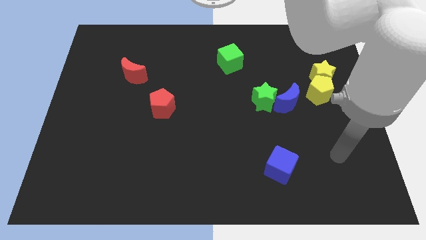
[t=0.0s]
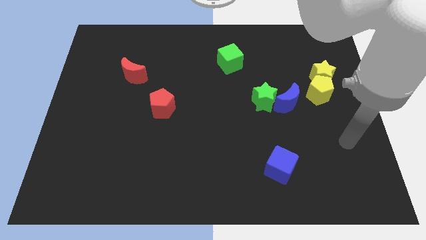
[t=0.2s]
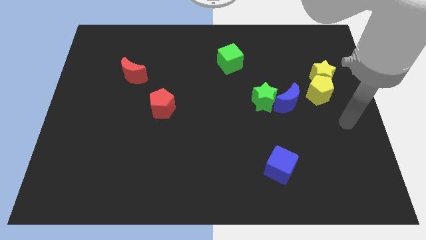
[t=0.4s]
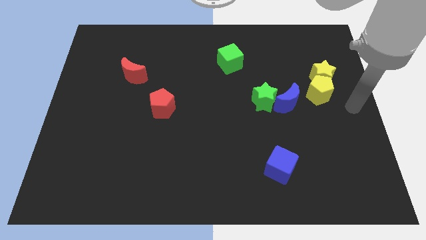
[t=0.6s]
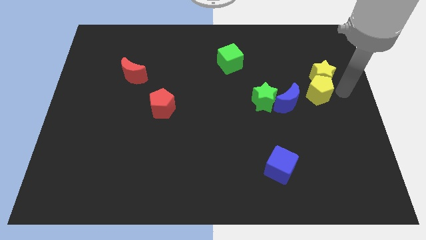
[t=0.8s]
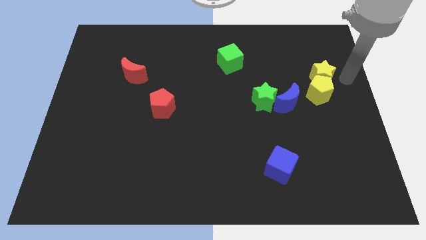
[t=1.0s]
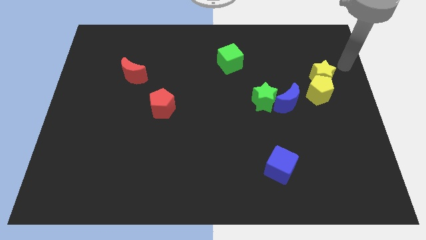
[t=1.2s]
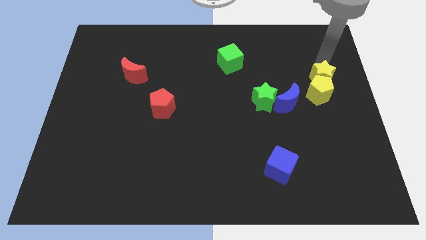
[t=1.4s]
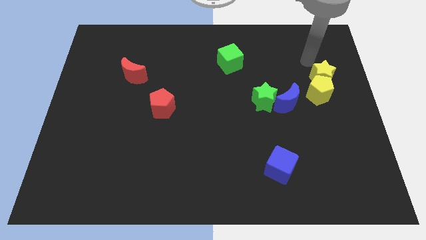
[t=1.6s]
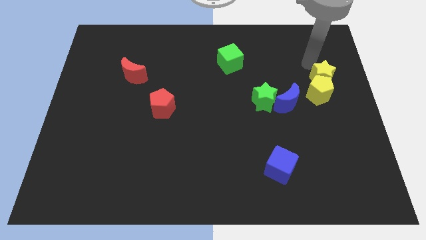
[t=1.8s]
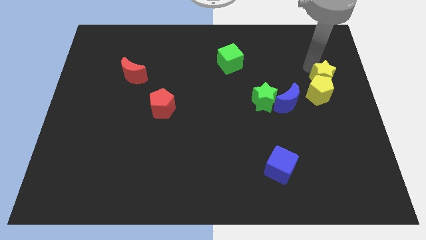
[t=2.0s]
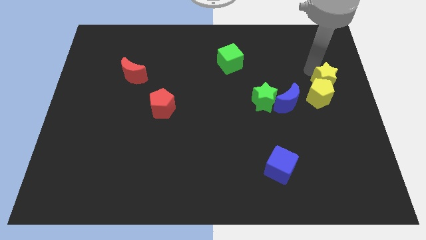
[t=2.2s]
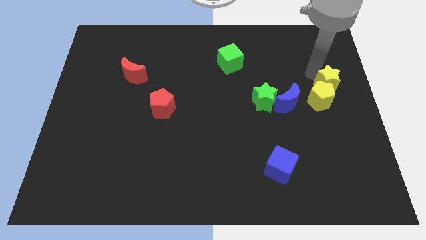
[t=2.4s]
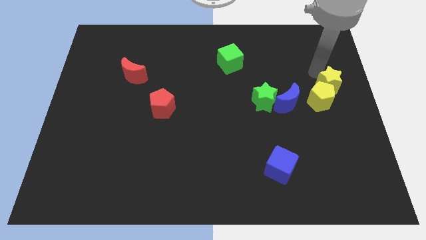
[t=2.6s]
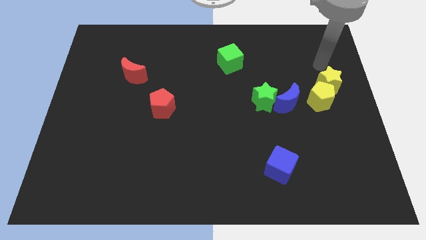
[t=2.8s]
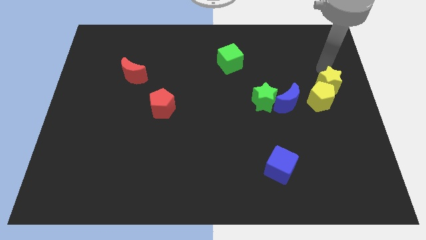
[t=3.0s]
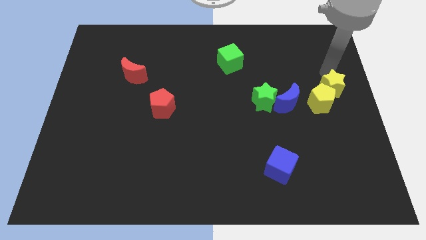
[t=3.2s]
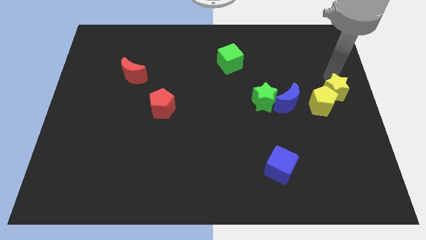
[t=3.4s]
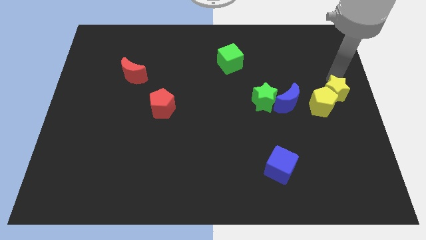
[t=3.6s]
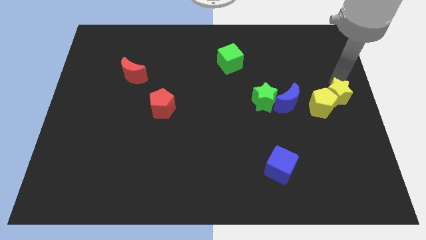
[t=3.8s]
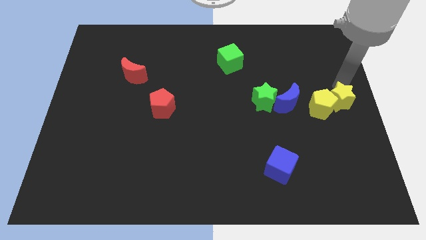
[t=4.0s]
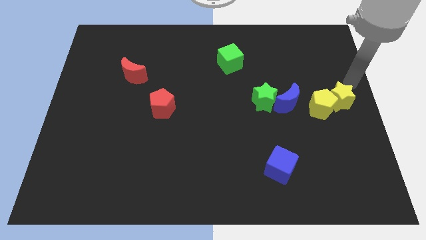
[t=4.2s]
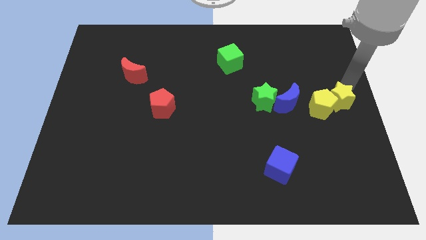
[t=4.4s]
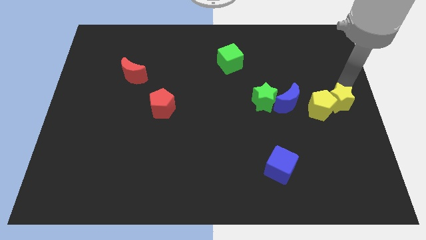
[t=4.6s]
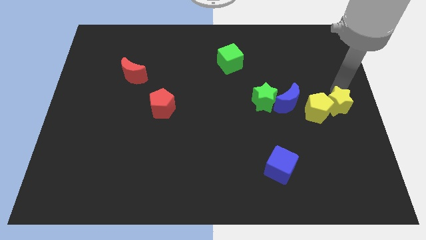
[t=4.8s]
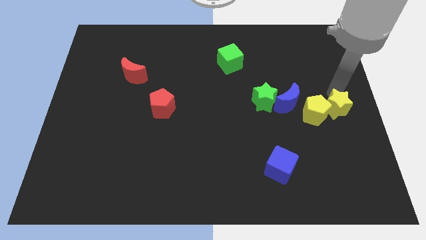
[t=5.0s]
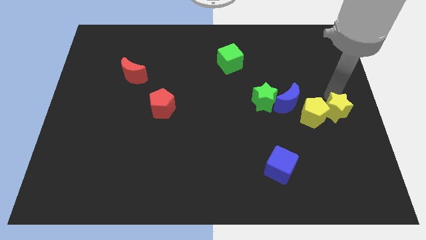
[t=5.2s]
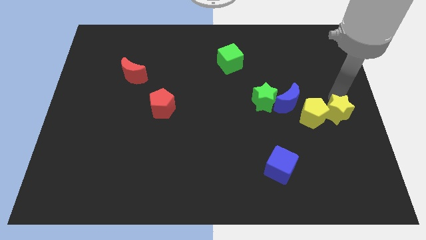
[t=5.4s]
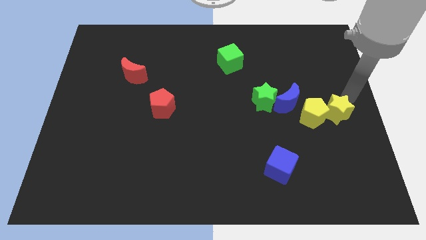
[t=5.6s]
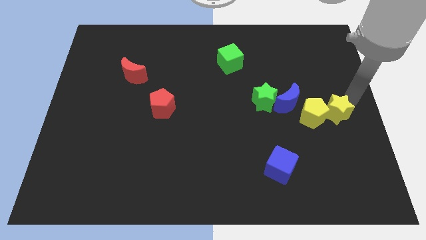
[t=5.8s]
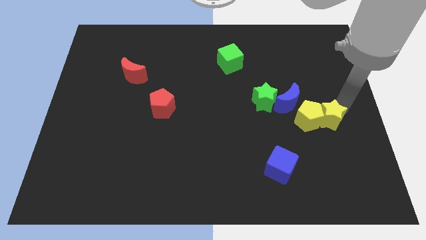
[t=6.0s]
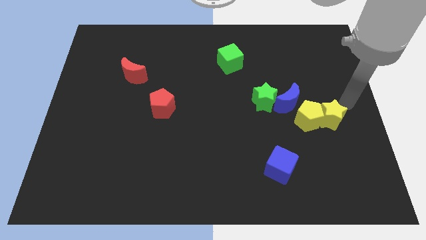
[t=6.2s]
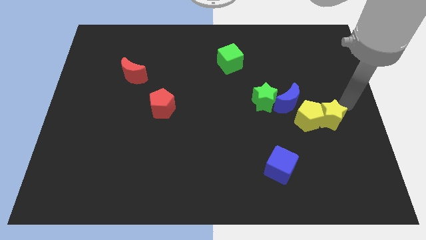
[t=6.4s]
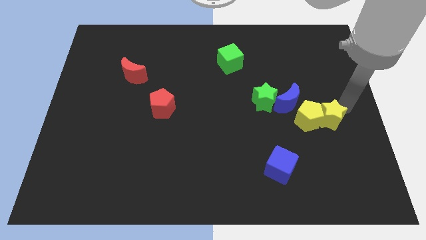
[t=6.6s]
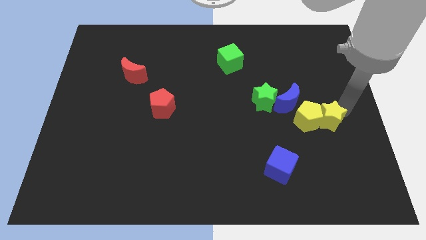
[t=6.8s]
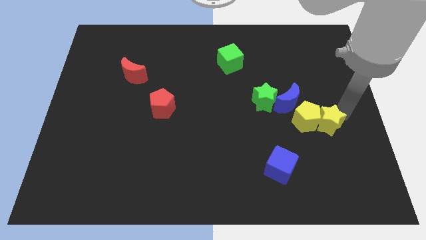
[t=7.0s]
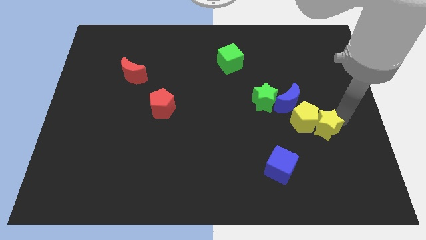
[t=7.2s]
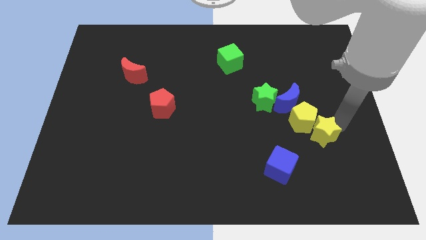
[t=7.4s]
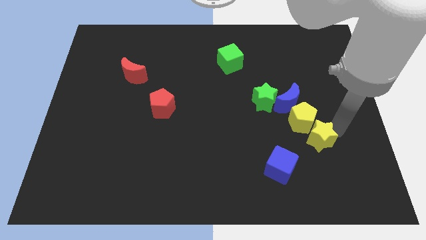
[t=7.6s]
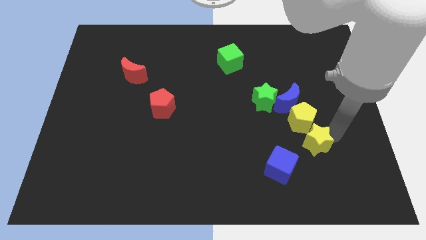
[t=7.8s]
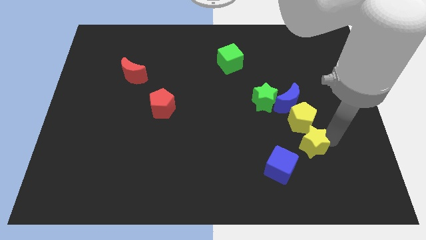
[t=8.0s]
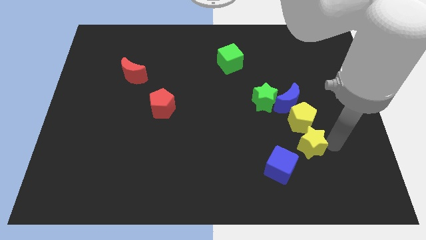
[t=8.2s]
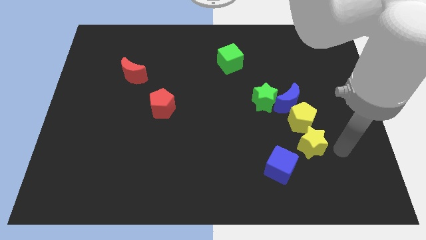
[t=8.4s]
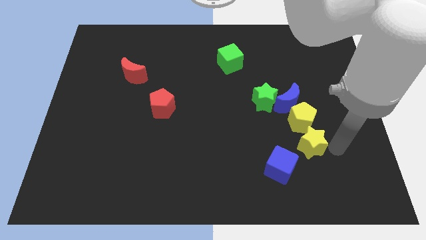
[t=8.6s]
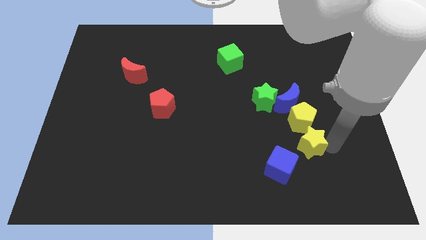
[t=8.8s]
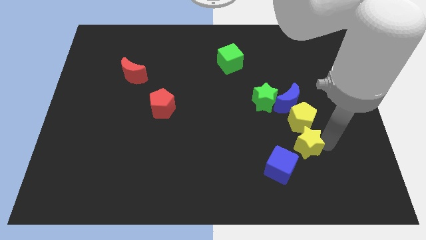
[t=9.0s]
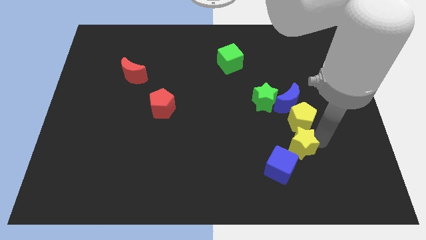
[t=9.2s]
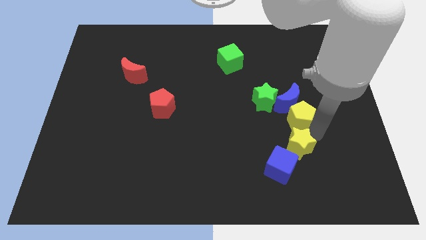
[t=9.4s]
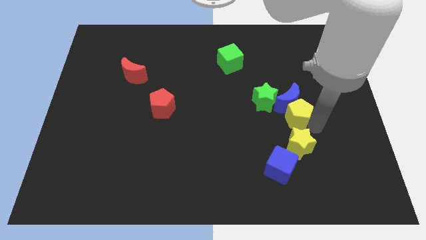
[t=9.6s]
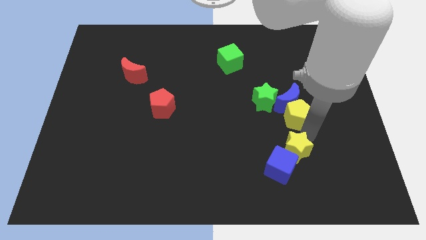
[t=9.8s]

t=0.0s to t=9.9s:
move the yellow star towards the blue cube

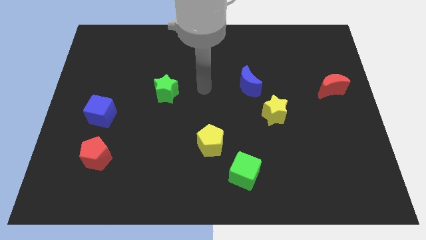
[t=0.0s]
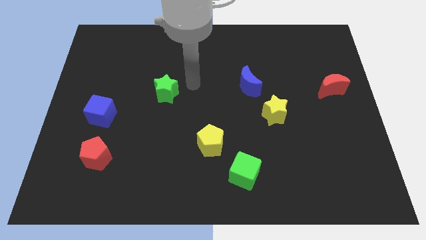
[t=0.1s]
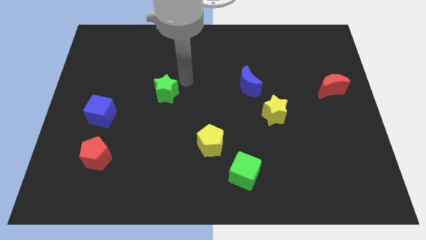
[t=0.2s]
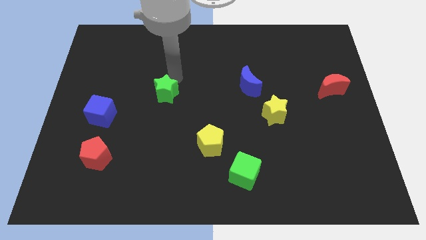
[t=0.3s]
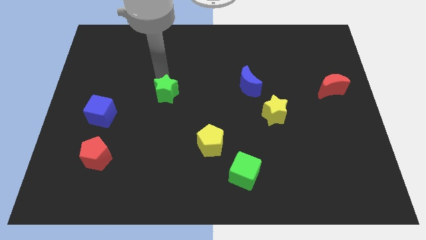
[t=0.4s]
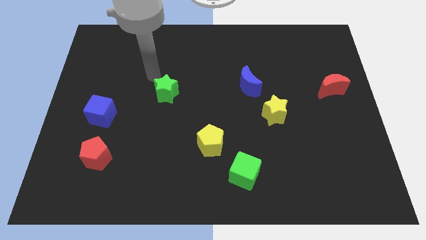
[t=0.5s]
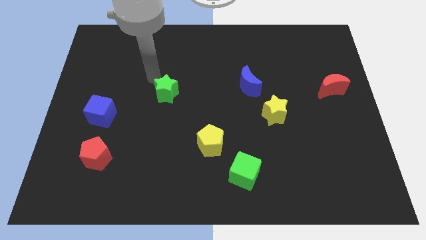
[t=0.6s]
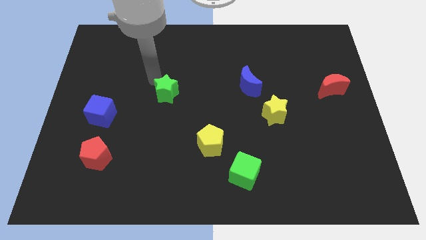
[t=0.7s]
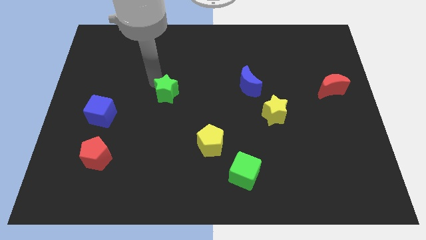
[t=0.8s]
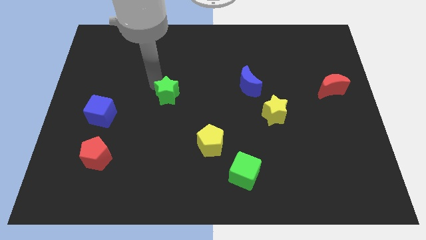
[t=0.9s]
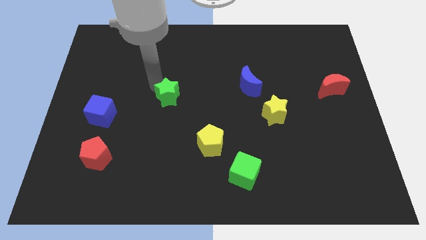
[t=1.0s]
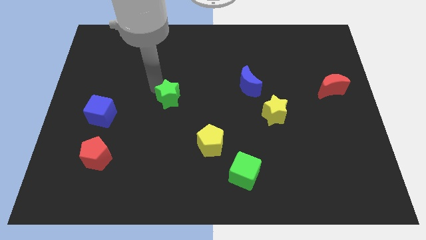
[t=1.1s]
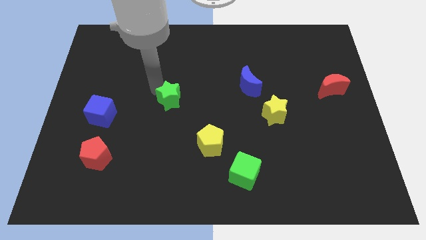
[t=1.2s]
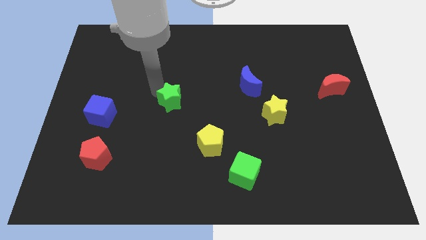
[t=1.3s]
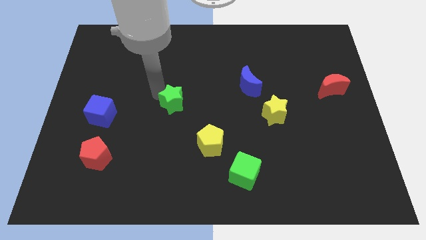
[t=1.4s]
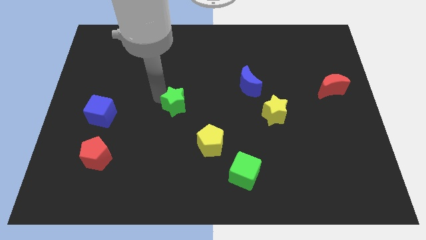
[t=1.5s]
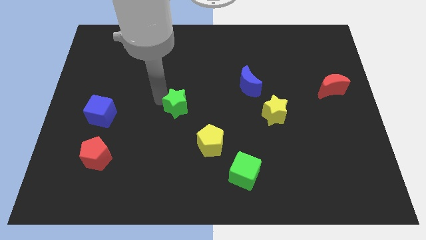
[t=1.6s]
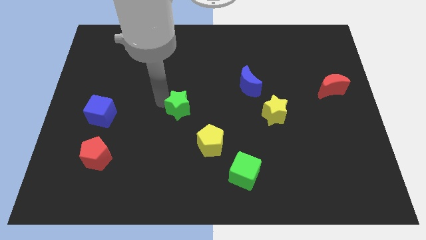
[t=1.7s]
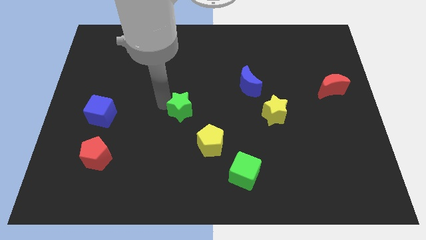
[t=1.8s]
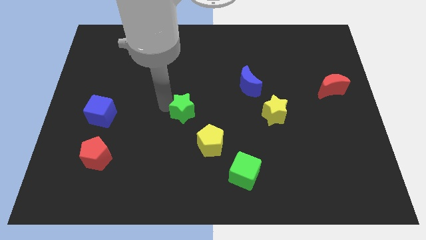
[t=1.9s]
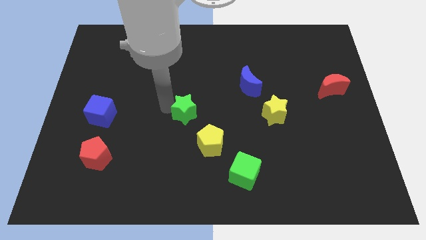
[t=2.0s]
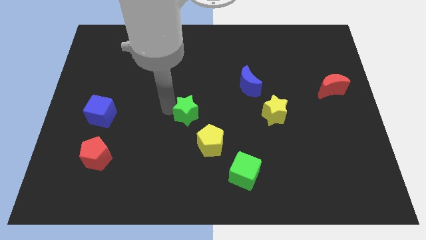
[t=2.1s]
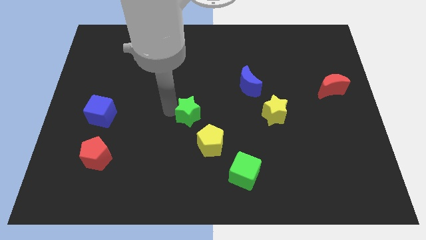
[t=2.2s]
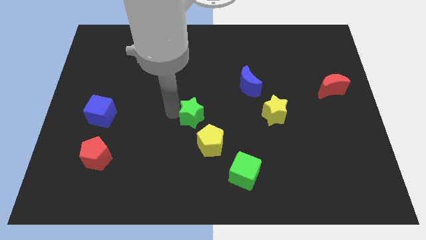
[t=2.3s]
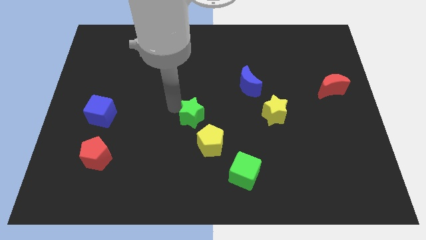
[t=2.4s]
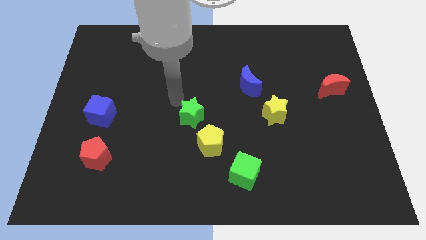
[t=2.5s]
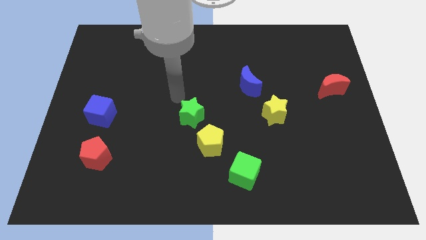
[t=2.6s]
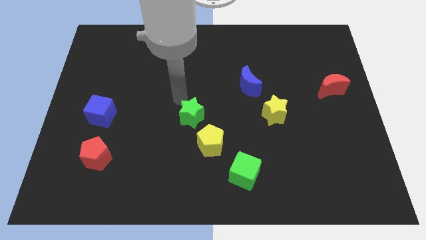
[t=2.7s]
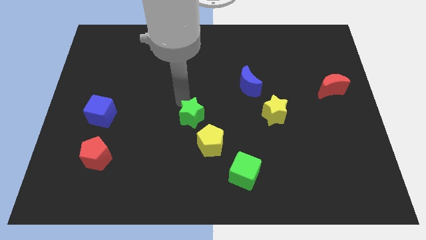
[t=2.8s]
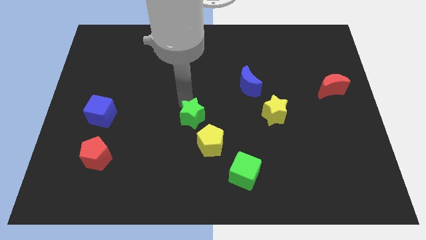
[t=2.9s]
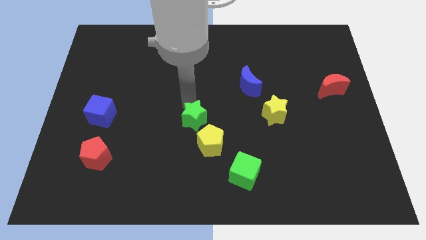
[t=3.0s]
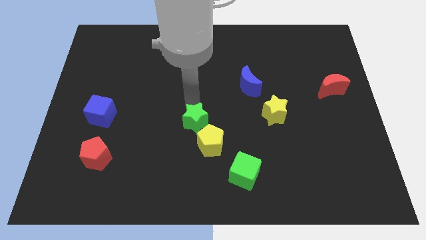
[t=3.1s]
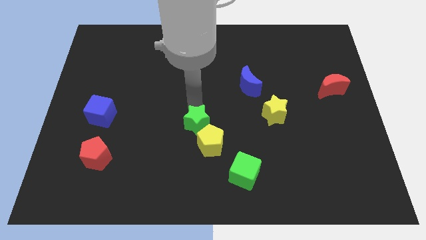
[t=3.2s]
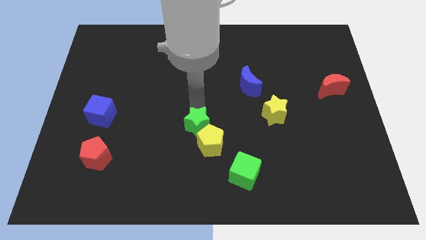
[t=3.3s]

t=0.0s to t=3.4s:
put the green star next to the yellow pentagon
